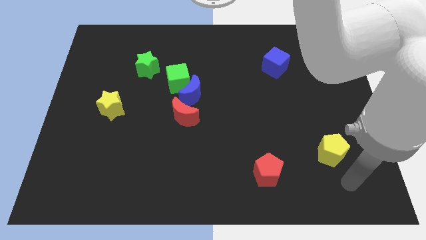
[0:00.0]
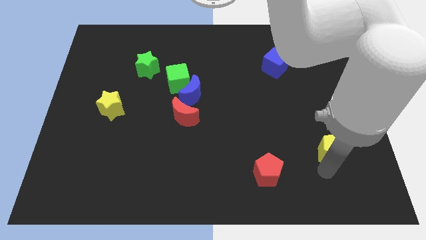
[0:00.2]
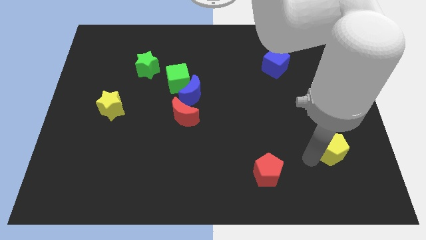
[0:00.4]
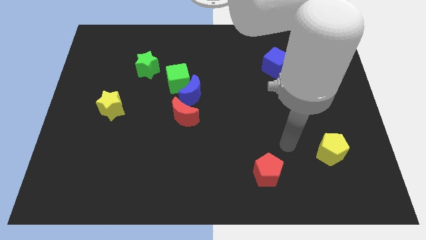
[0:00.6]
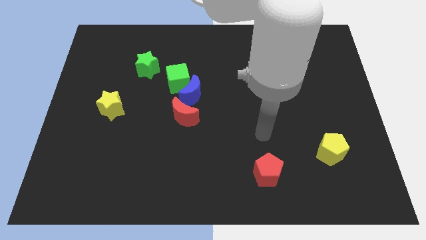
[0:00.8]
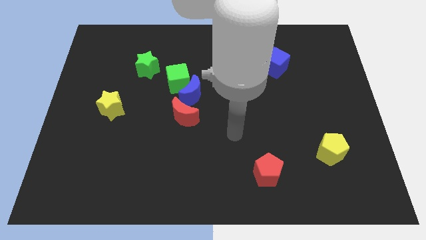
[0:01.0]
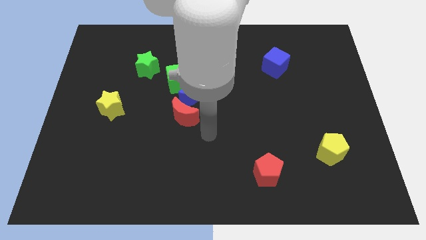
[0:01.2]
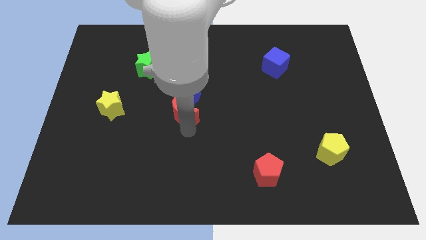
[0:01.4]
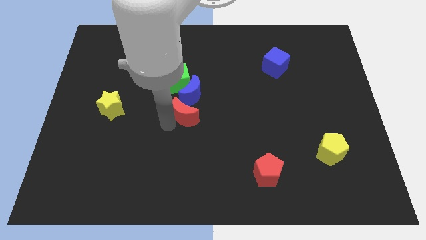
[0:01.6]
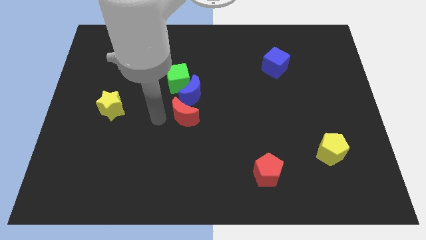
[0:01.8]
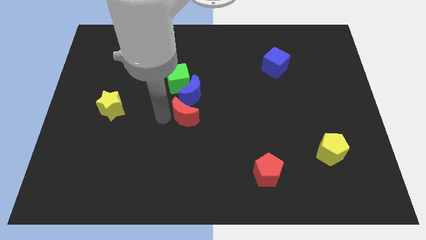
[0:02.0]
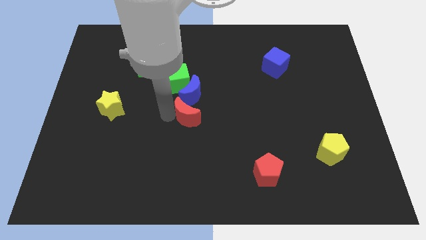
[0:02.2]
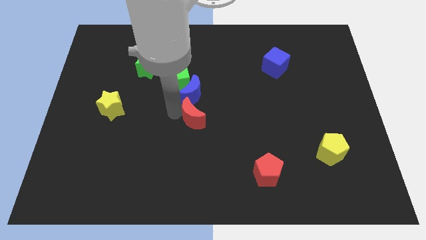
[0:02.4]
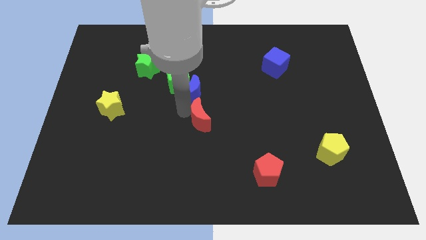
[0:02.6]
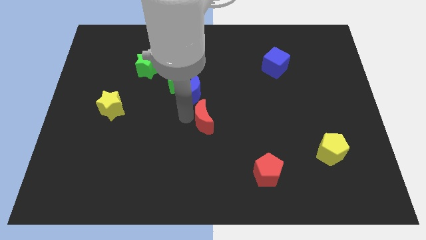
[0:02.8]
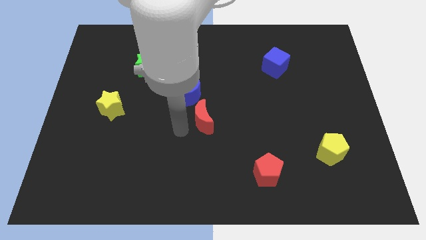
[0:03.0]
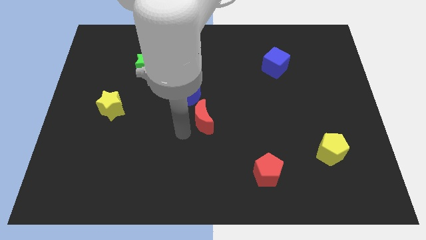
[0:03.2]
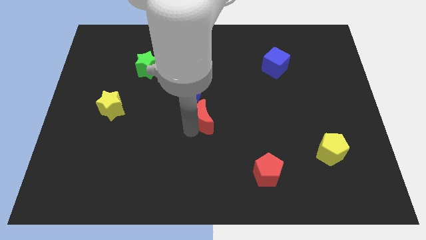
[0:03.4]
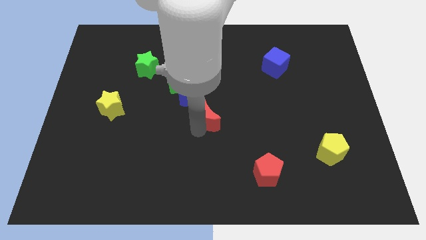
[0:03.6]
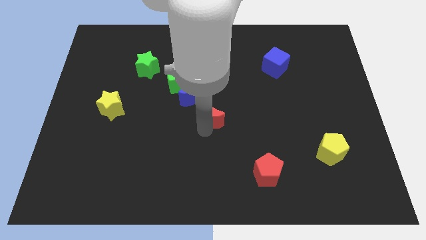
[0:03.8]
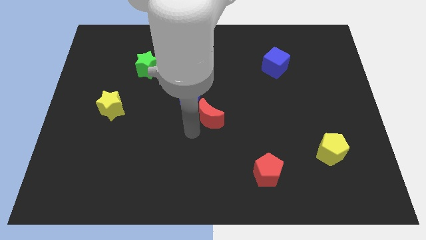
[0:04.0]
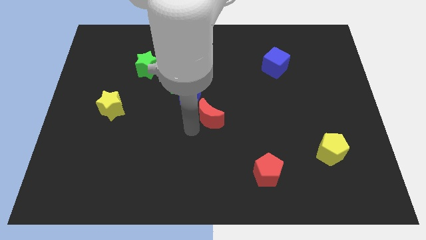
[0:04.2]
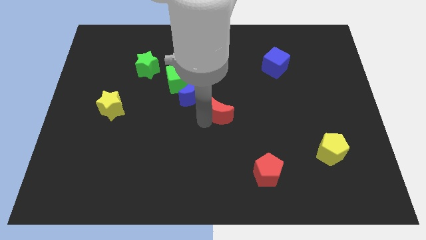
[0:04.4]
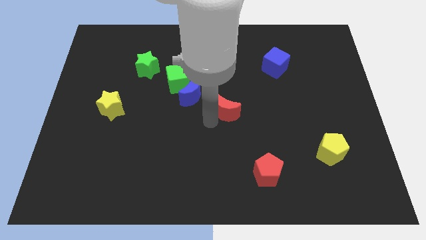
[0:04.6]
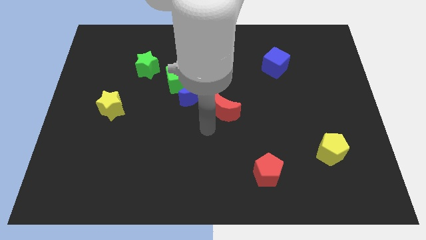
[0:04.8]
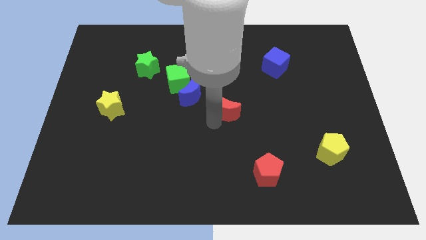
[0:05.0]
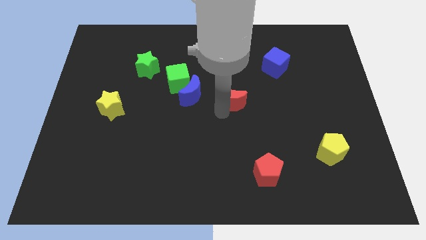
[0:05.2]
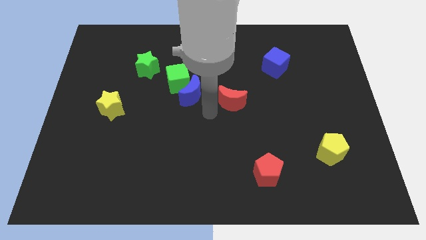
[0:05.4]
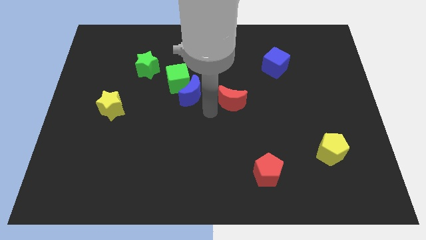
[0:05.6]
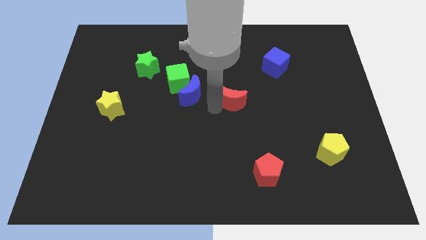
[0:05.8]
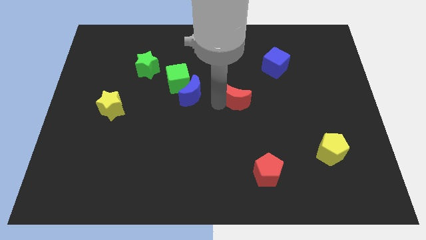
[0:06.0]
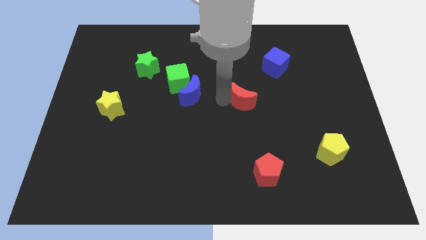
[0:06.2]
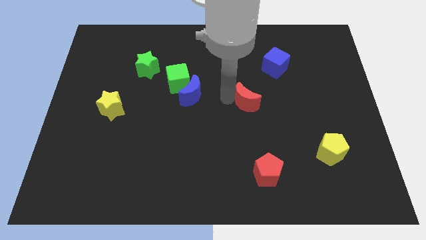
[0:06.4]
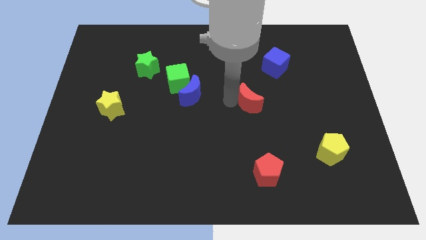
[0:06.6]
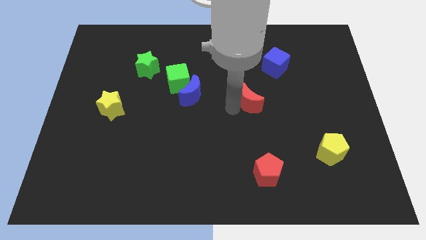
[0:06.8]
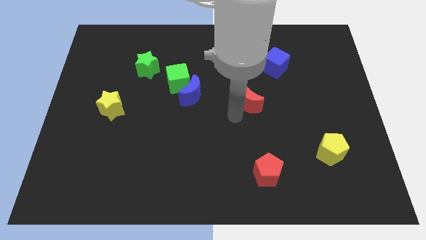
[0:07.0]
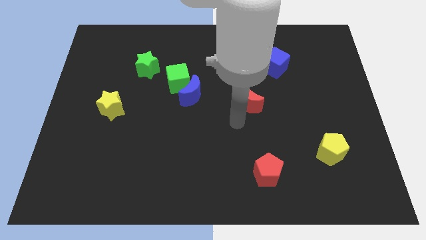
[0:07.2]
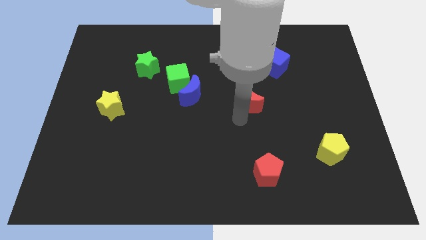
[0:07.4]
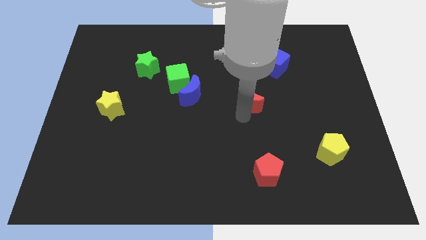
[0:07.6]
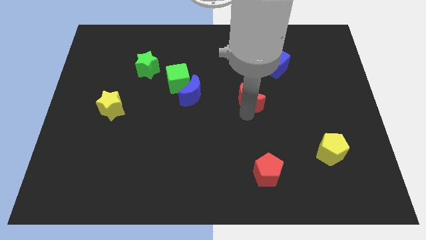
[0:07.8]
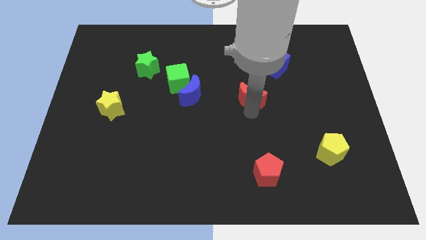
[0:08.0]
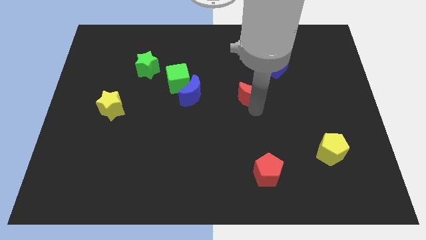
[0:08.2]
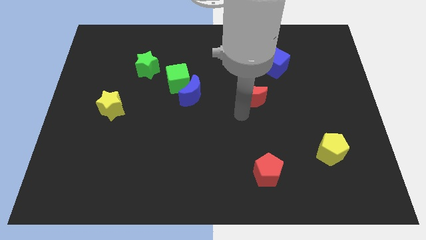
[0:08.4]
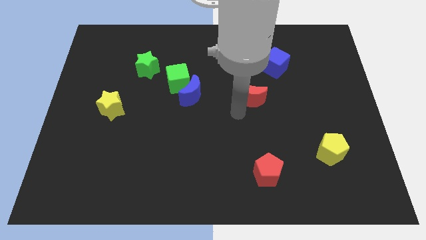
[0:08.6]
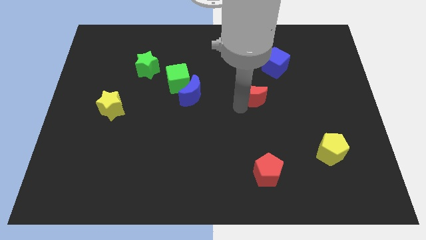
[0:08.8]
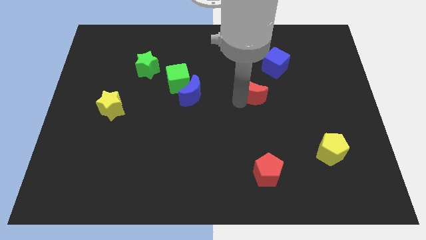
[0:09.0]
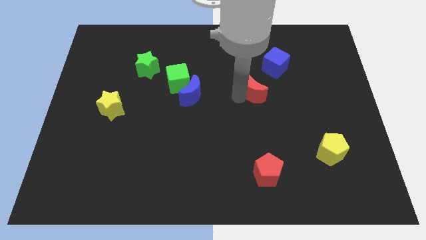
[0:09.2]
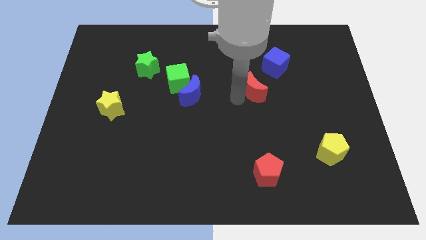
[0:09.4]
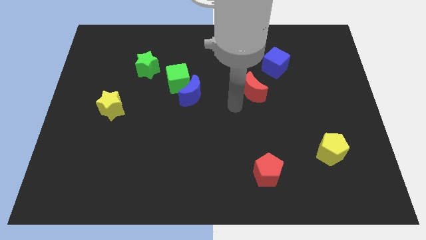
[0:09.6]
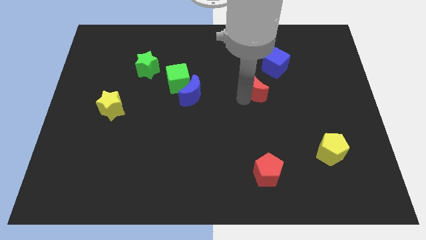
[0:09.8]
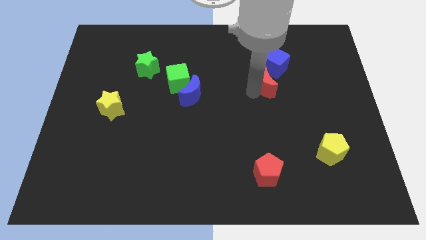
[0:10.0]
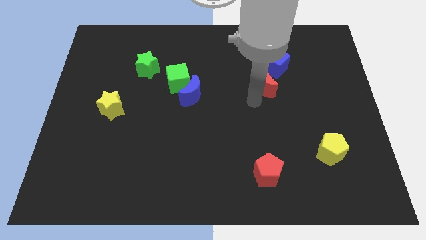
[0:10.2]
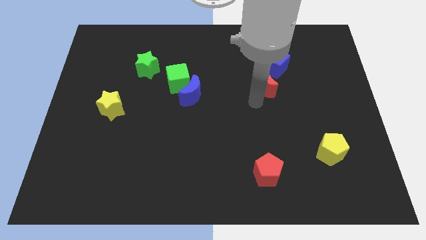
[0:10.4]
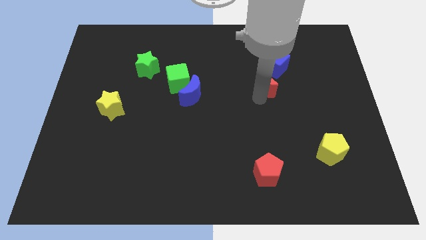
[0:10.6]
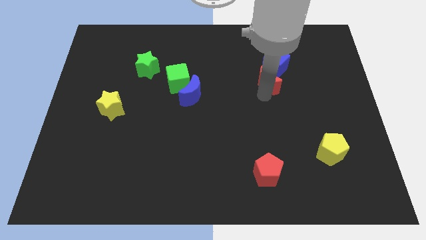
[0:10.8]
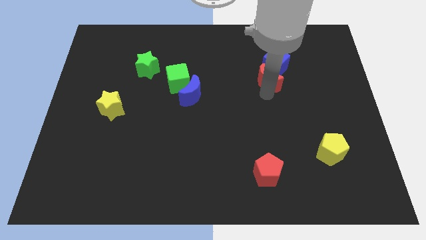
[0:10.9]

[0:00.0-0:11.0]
move the red moon close to the blue cube

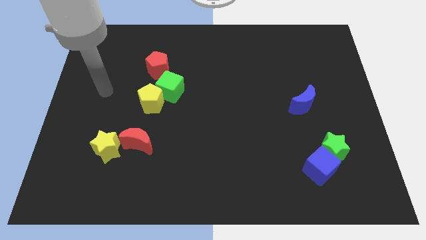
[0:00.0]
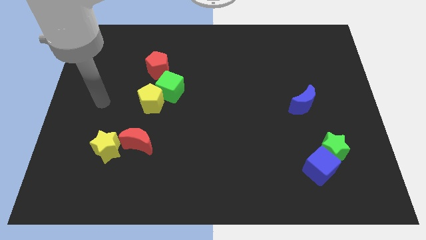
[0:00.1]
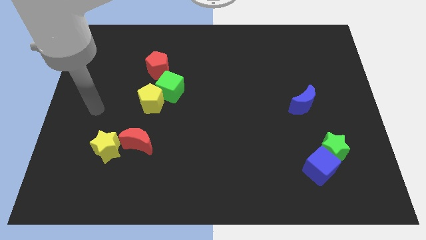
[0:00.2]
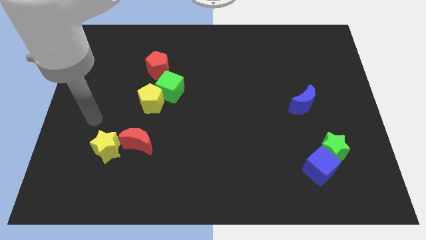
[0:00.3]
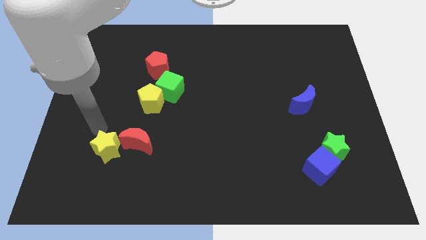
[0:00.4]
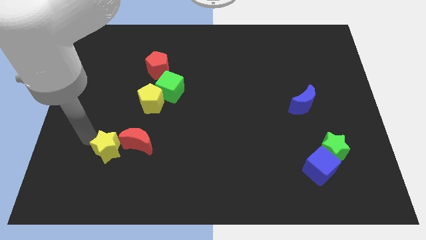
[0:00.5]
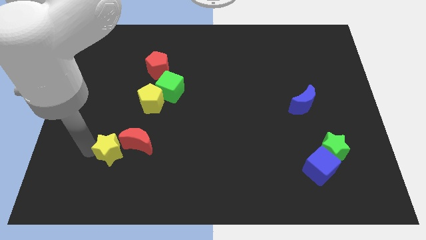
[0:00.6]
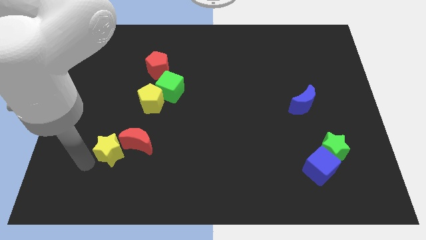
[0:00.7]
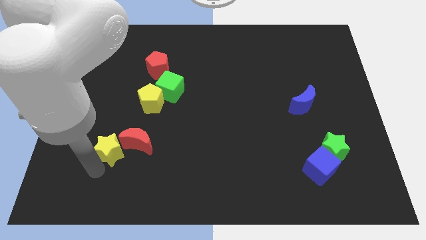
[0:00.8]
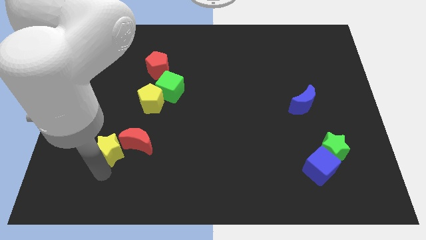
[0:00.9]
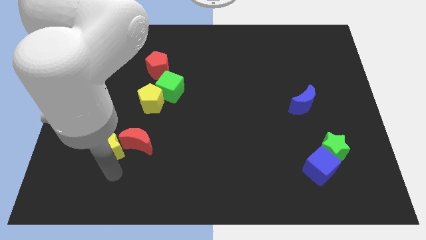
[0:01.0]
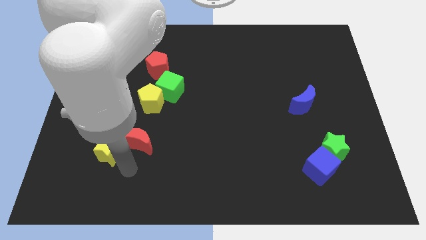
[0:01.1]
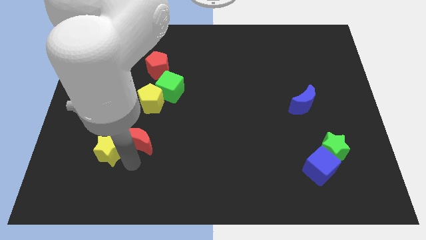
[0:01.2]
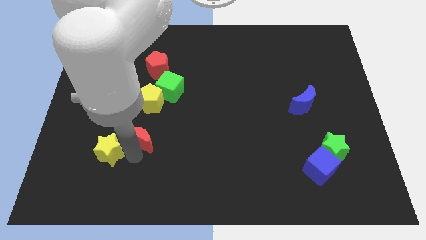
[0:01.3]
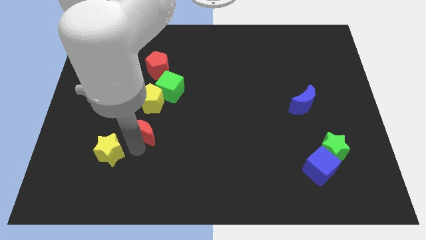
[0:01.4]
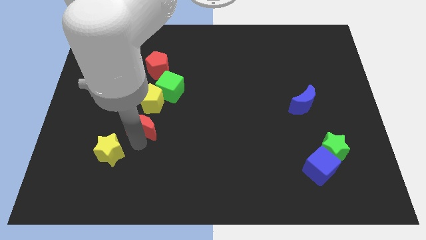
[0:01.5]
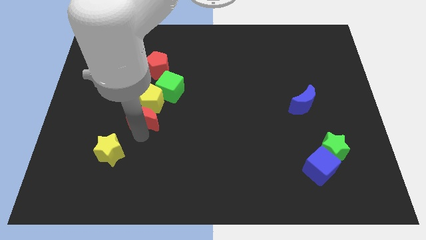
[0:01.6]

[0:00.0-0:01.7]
slide the red moon to the yellow pentagon
